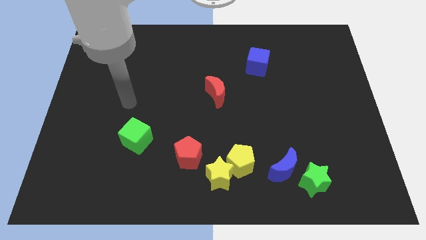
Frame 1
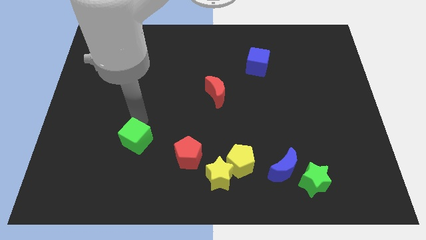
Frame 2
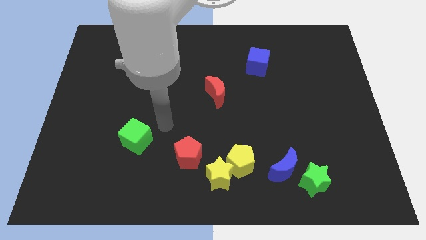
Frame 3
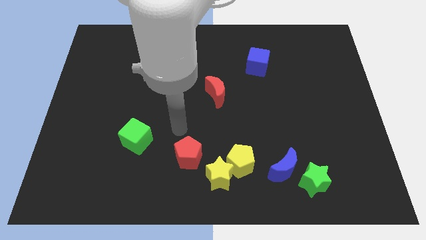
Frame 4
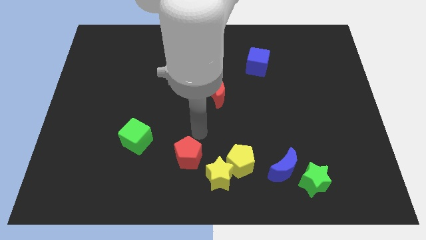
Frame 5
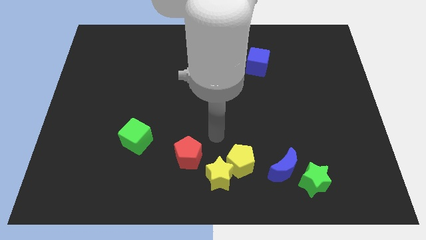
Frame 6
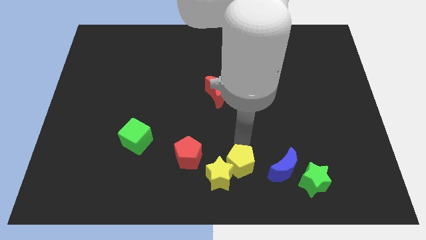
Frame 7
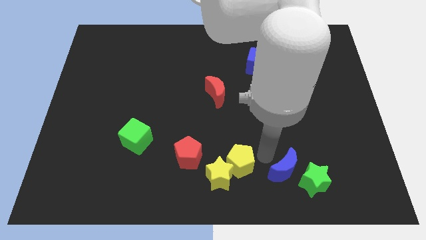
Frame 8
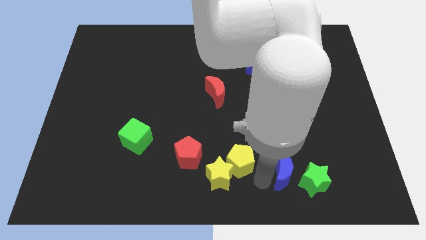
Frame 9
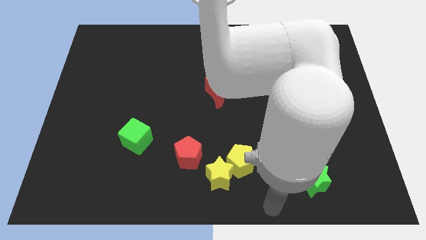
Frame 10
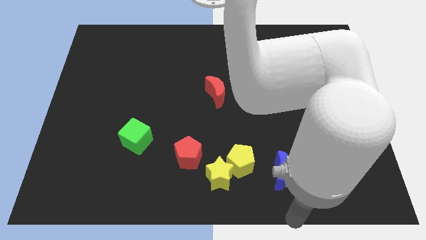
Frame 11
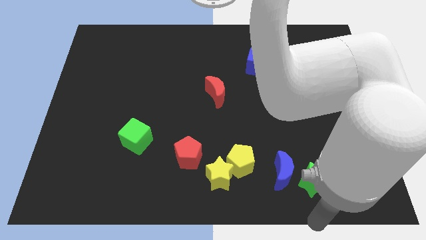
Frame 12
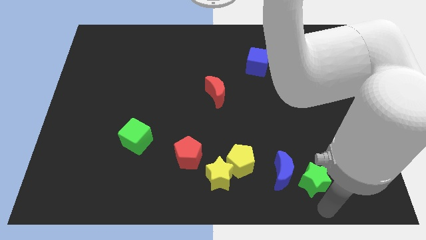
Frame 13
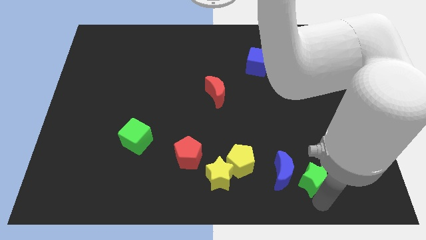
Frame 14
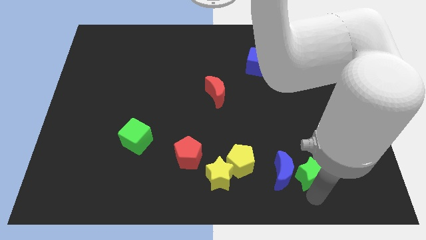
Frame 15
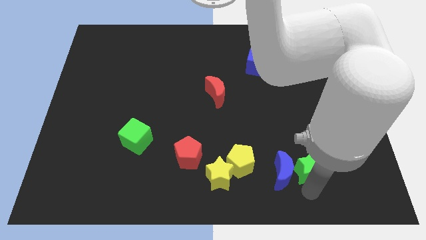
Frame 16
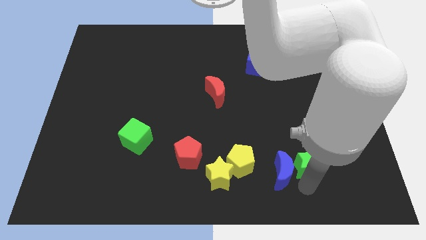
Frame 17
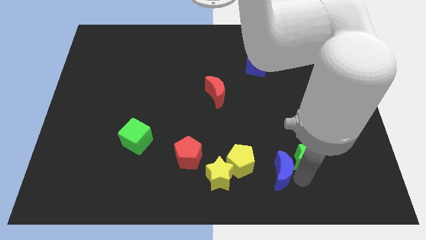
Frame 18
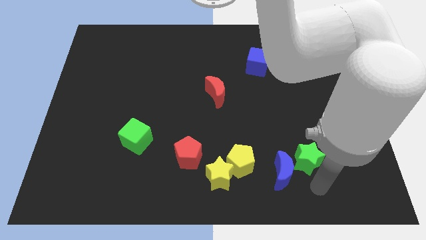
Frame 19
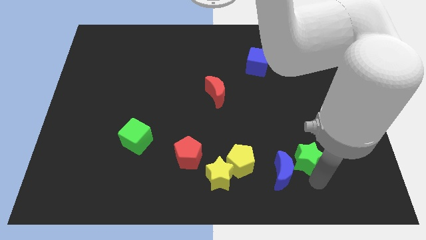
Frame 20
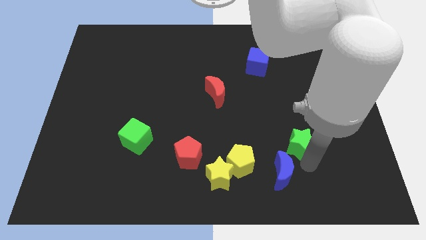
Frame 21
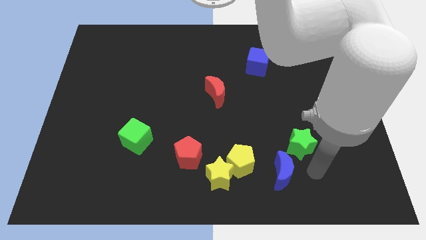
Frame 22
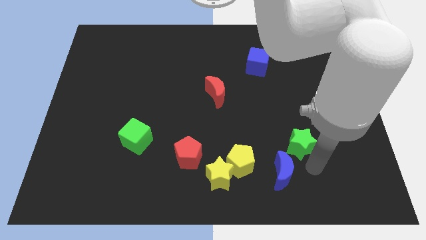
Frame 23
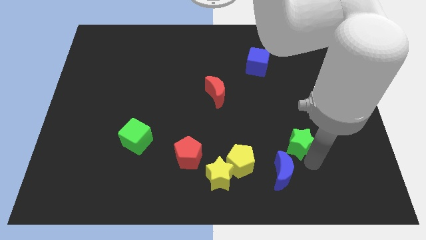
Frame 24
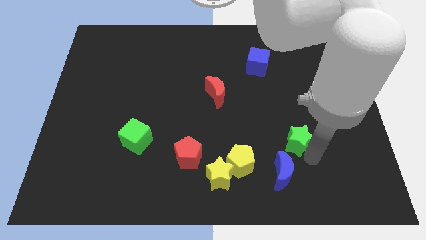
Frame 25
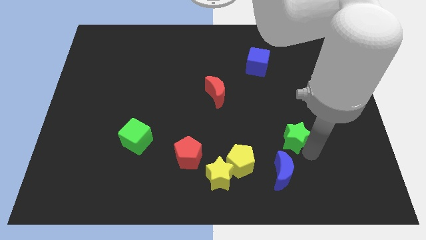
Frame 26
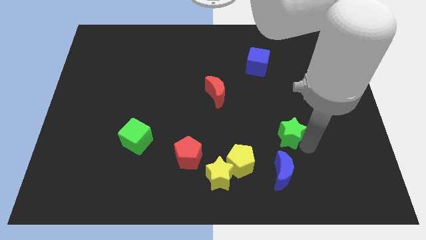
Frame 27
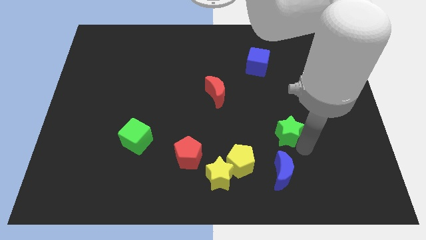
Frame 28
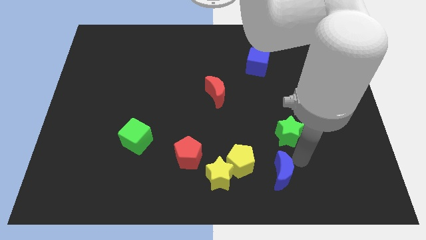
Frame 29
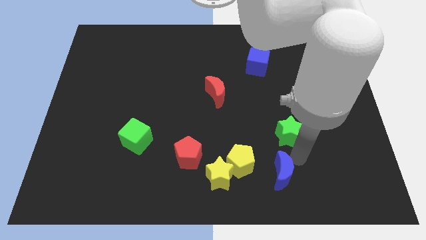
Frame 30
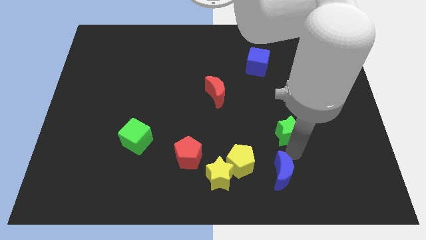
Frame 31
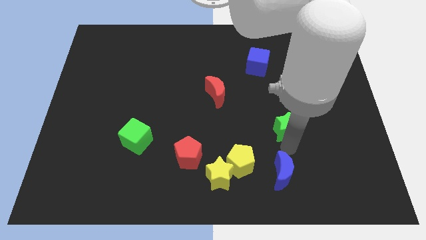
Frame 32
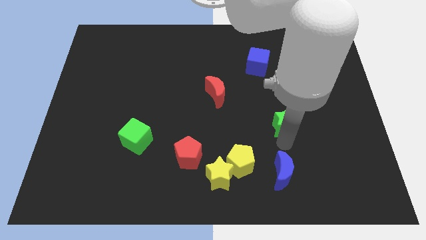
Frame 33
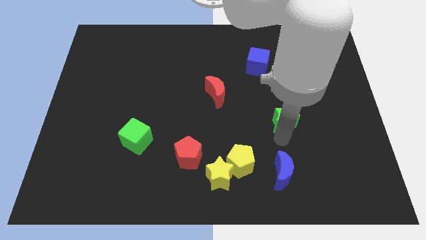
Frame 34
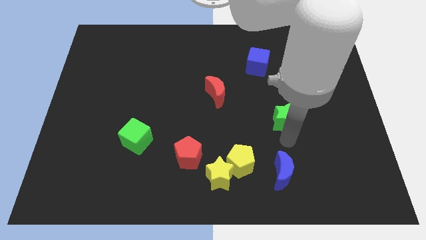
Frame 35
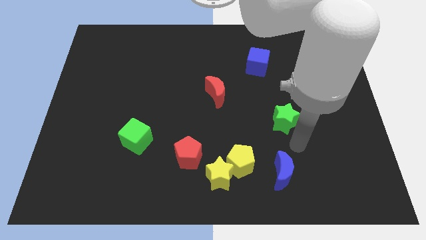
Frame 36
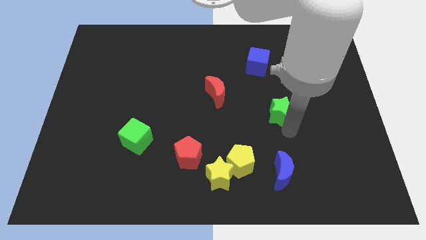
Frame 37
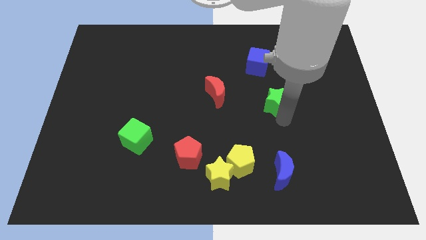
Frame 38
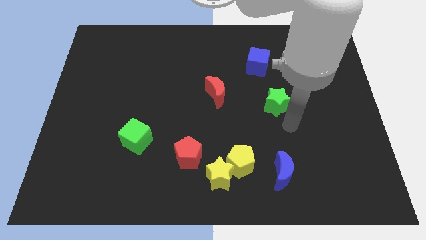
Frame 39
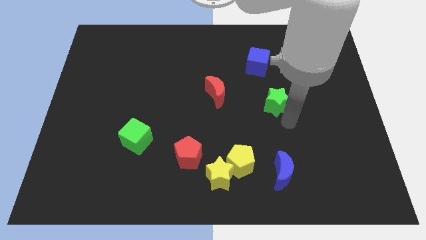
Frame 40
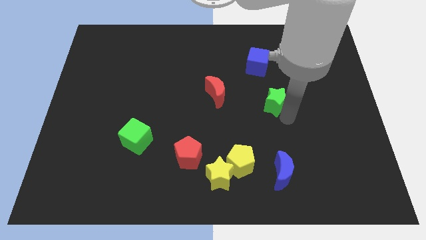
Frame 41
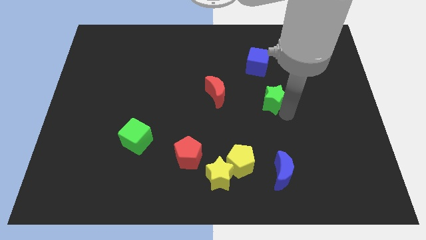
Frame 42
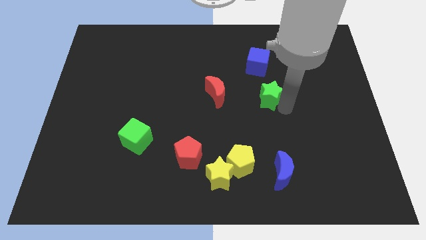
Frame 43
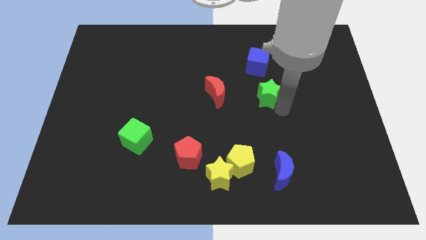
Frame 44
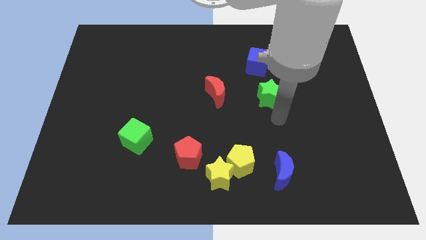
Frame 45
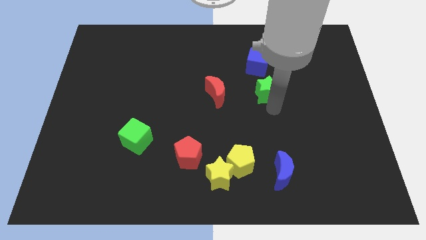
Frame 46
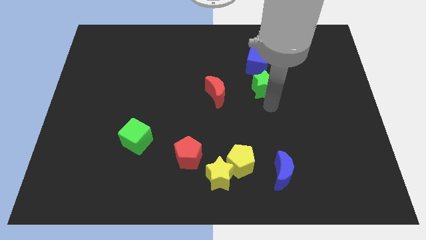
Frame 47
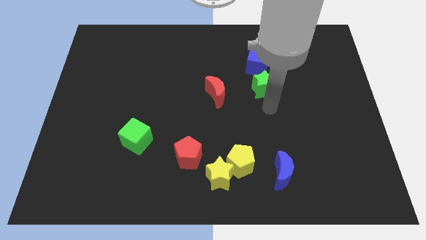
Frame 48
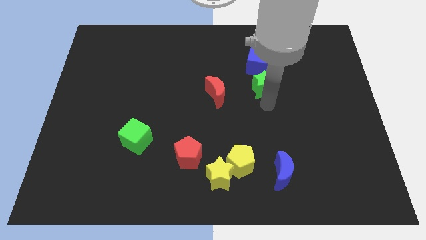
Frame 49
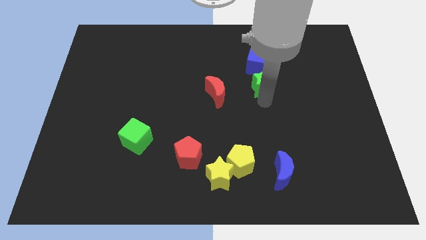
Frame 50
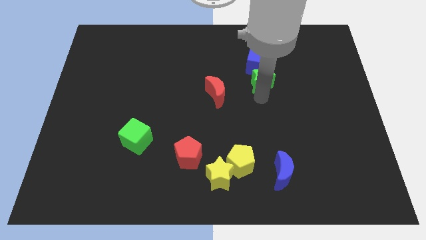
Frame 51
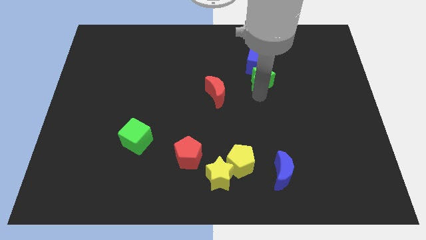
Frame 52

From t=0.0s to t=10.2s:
move the green star towards the blue cube

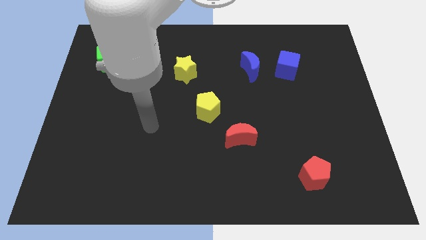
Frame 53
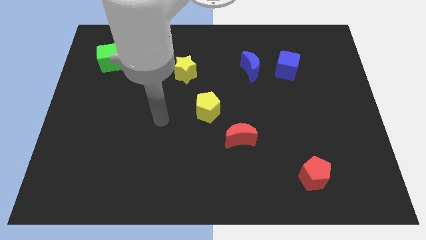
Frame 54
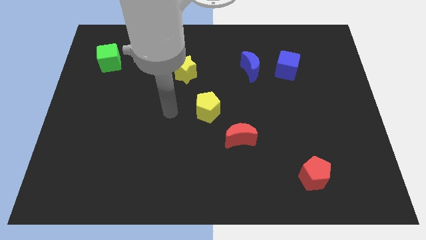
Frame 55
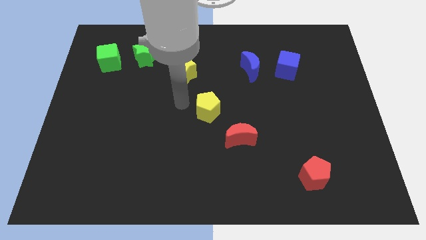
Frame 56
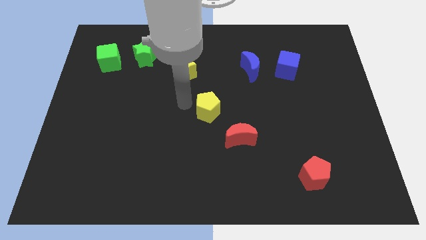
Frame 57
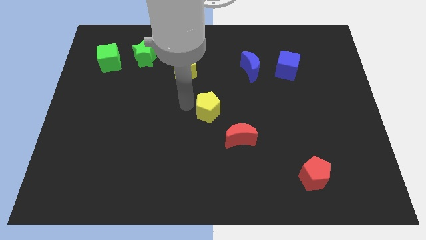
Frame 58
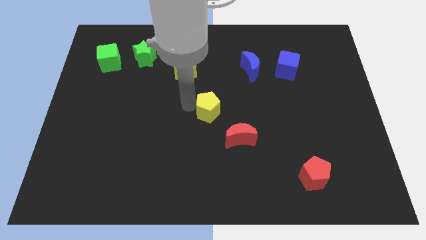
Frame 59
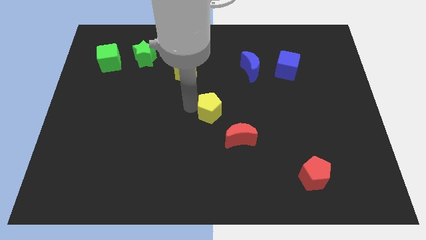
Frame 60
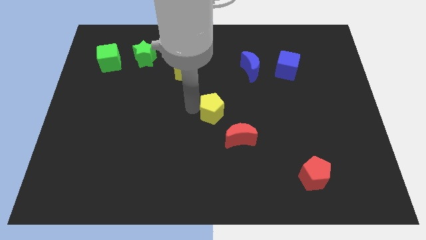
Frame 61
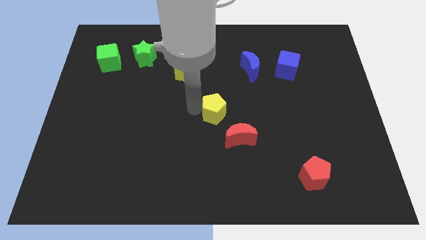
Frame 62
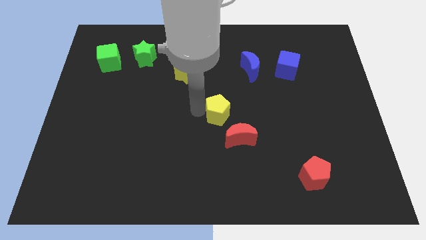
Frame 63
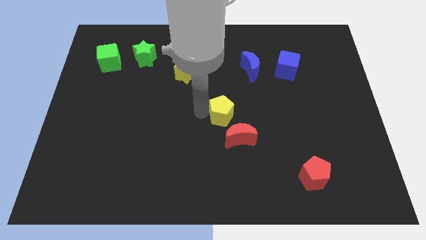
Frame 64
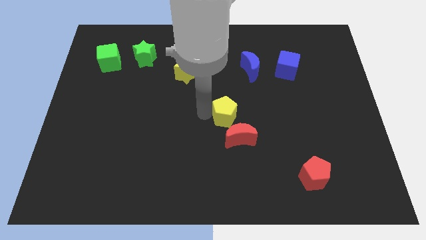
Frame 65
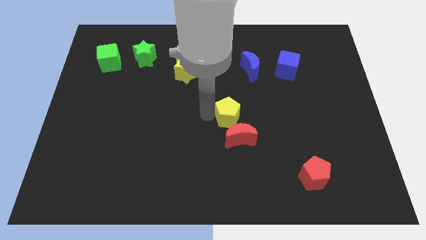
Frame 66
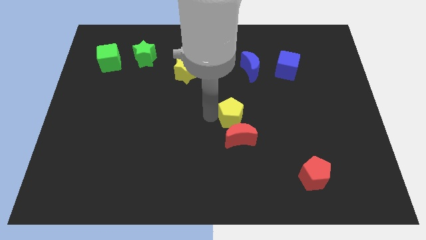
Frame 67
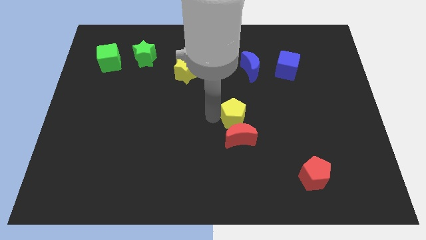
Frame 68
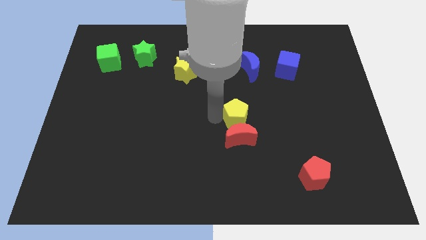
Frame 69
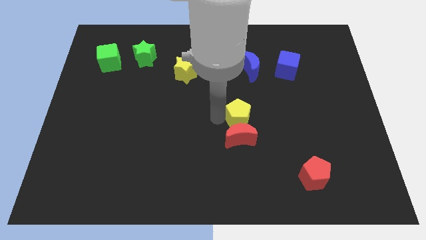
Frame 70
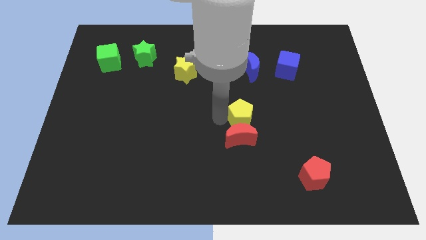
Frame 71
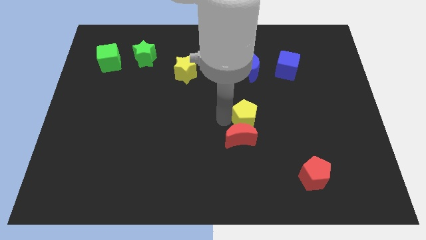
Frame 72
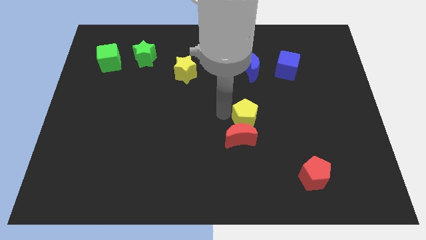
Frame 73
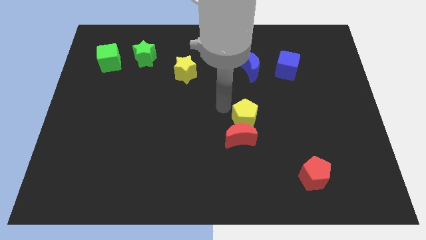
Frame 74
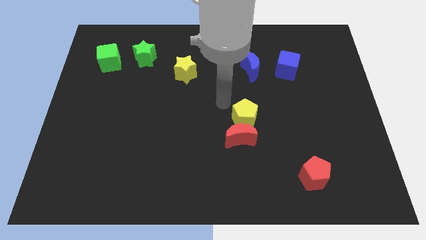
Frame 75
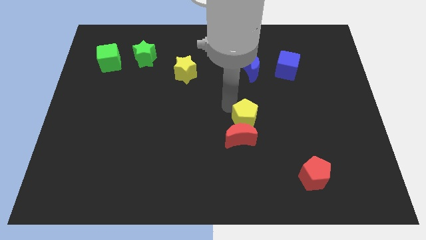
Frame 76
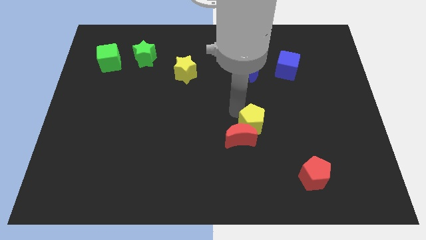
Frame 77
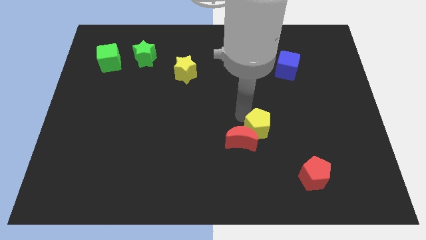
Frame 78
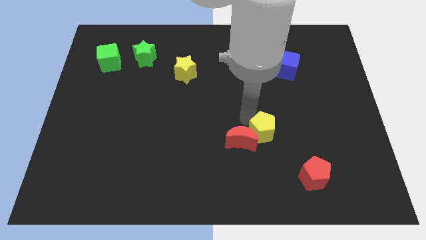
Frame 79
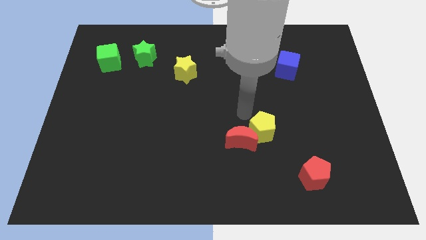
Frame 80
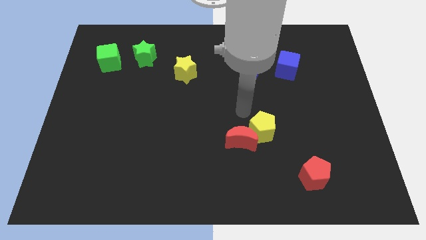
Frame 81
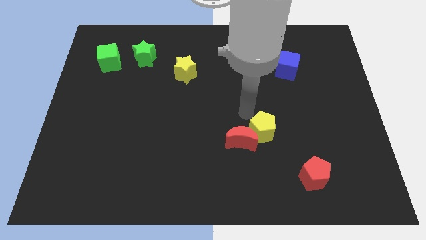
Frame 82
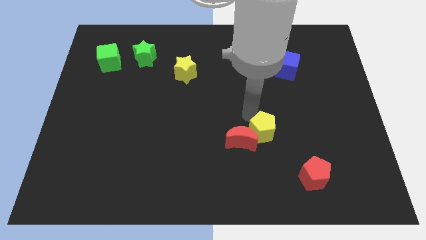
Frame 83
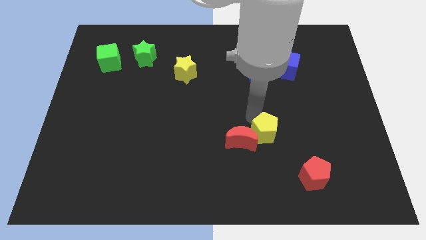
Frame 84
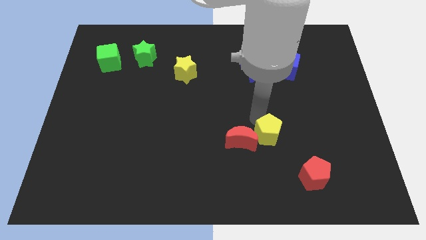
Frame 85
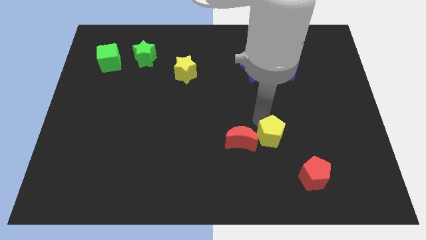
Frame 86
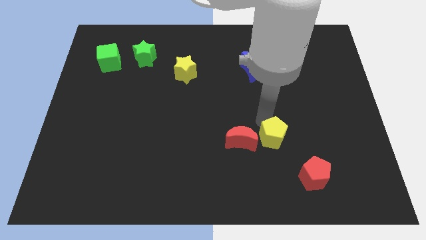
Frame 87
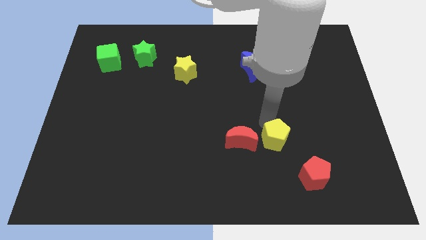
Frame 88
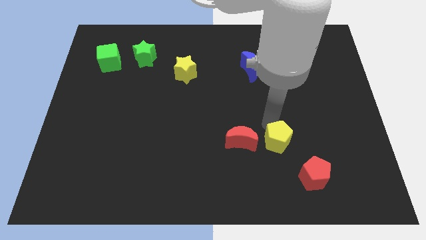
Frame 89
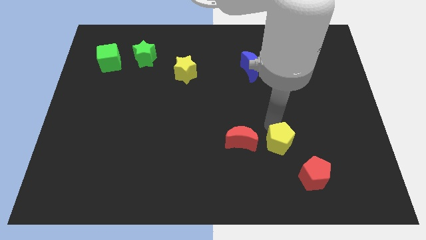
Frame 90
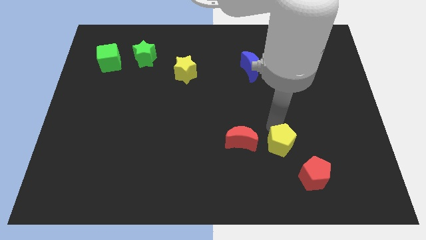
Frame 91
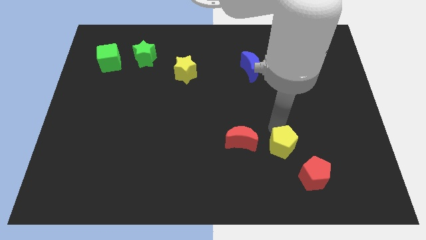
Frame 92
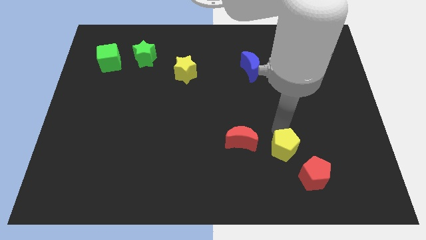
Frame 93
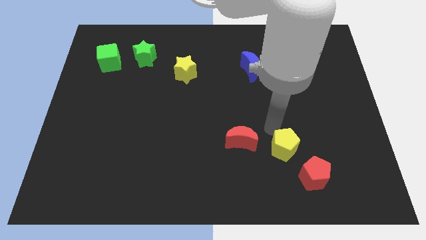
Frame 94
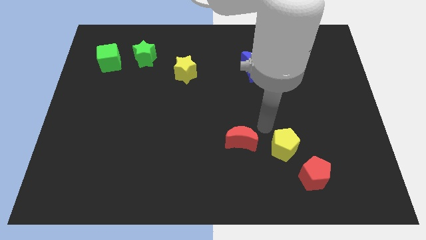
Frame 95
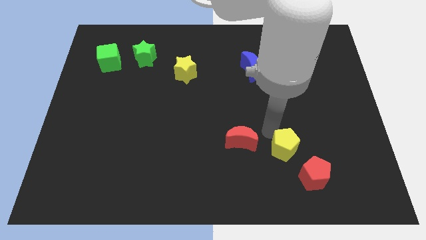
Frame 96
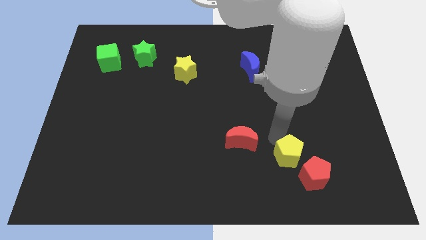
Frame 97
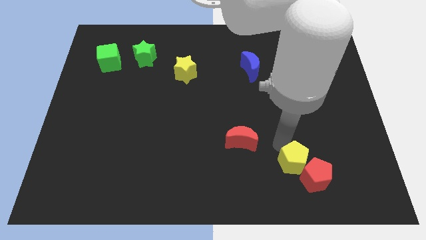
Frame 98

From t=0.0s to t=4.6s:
slide the yellow pentagon to the red pentagon
